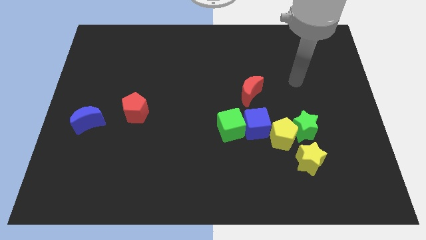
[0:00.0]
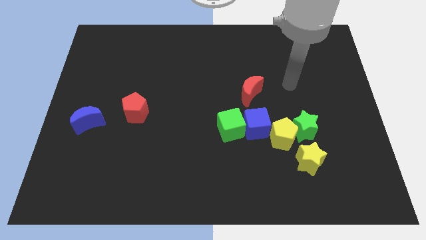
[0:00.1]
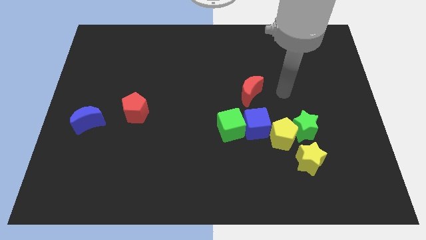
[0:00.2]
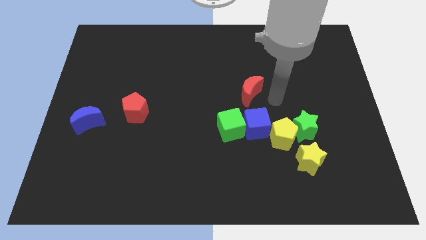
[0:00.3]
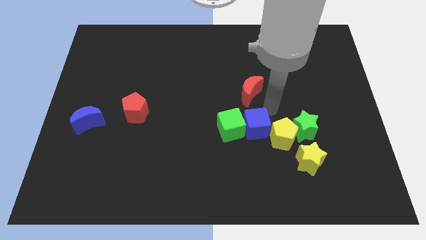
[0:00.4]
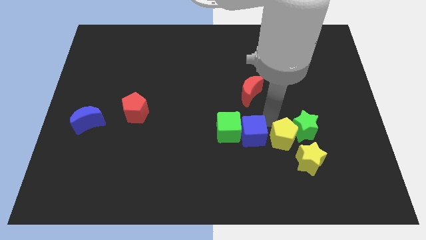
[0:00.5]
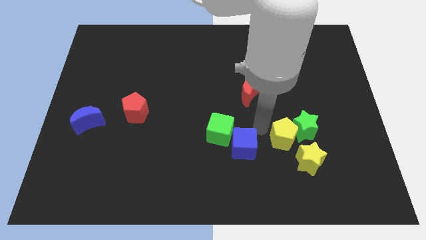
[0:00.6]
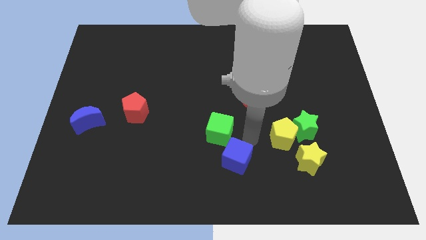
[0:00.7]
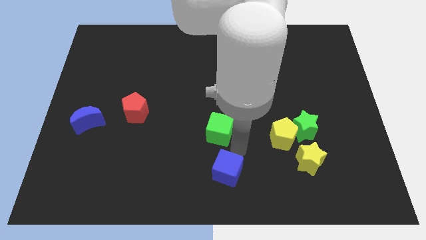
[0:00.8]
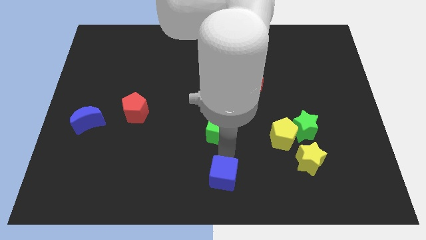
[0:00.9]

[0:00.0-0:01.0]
separate the green cube from the blue cube

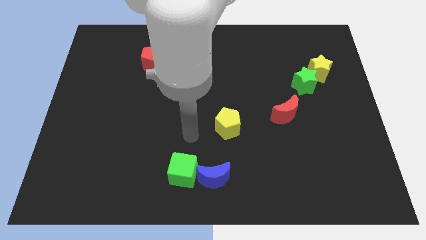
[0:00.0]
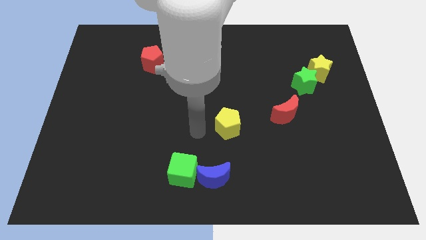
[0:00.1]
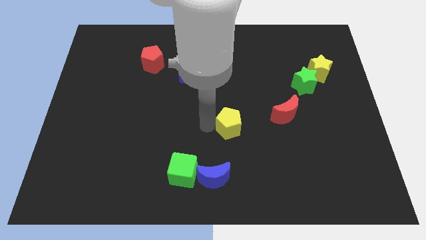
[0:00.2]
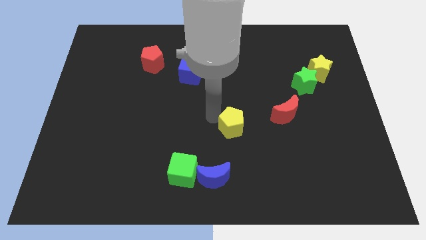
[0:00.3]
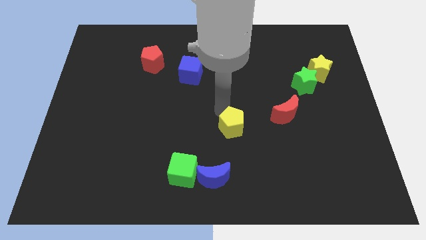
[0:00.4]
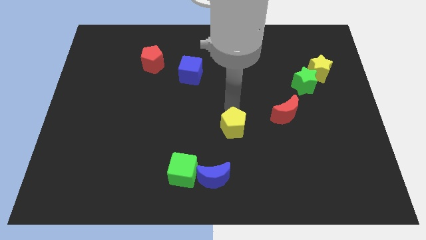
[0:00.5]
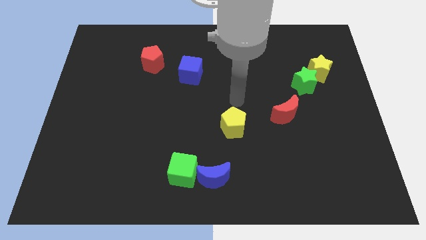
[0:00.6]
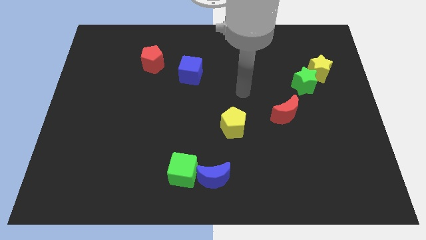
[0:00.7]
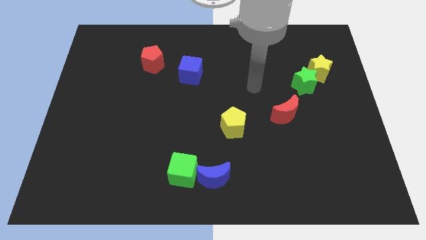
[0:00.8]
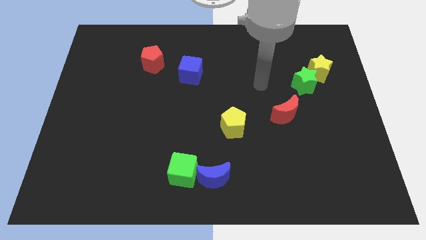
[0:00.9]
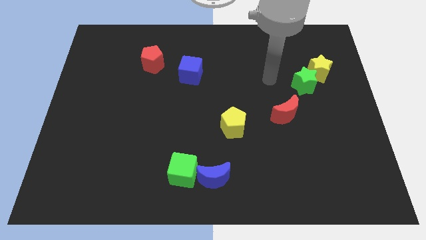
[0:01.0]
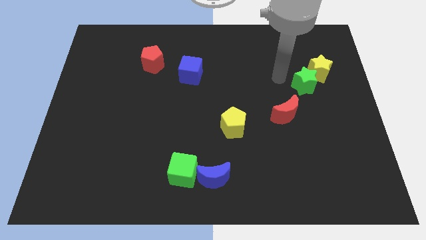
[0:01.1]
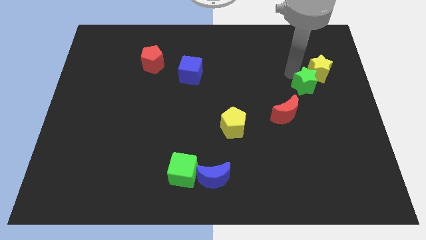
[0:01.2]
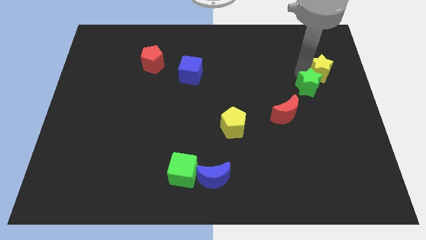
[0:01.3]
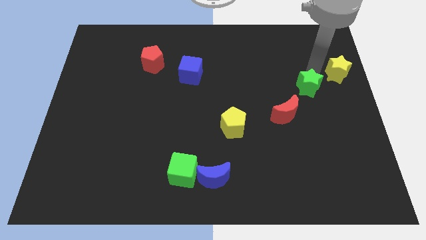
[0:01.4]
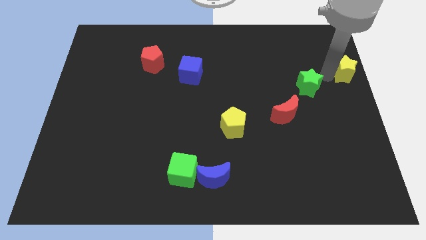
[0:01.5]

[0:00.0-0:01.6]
move the green star away from the yellow star

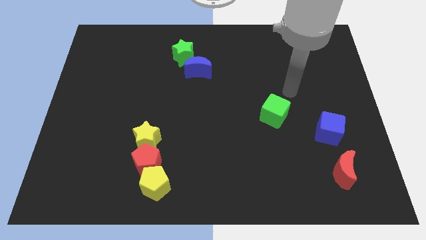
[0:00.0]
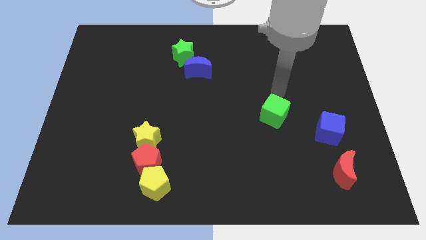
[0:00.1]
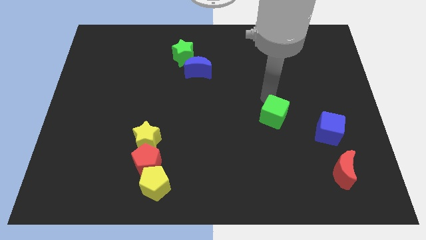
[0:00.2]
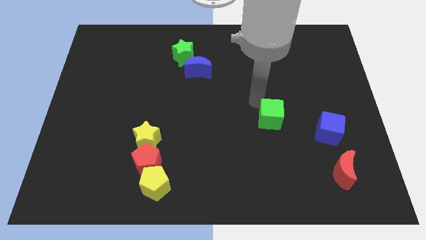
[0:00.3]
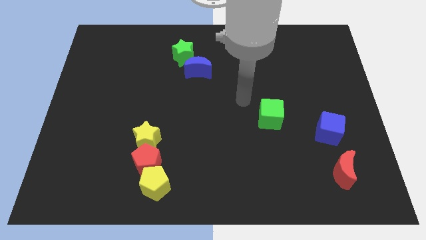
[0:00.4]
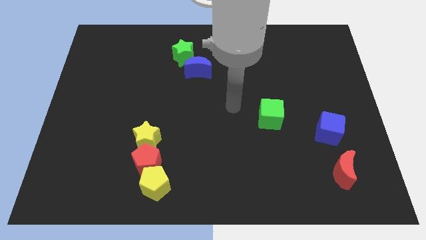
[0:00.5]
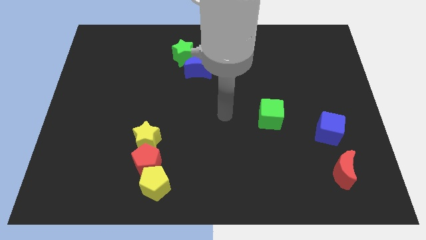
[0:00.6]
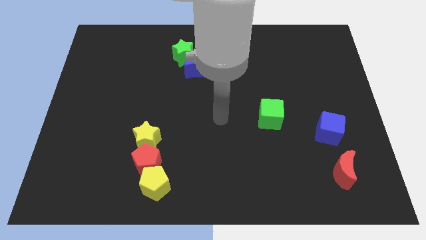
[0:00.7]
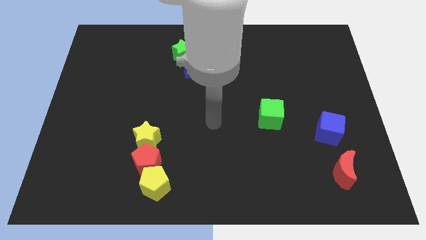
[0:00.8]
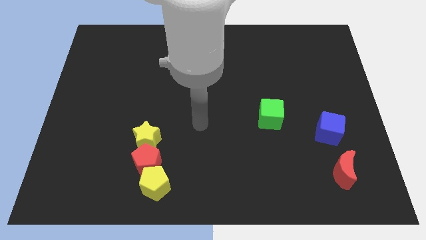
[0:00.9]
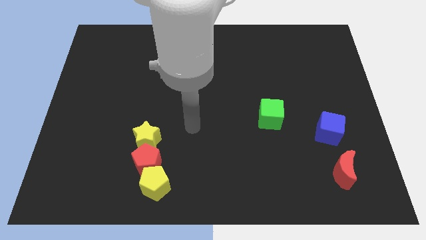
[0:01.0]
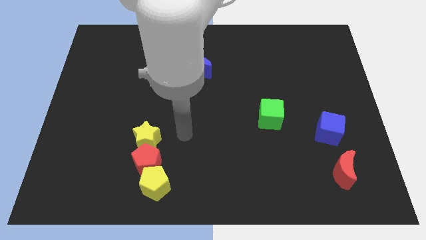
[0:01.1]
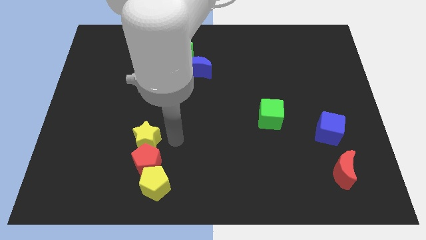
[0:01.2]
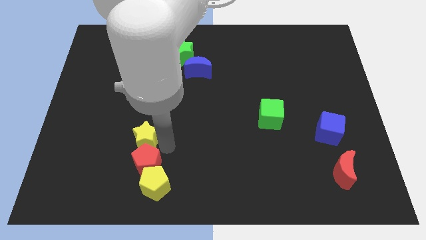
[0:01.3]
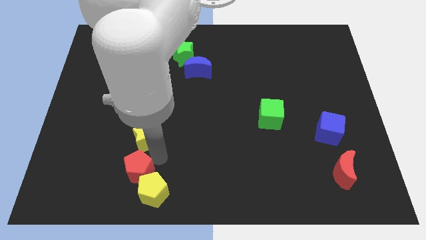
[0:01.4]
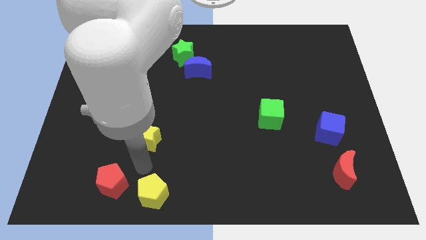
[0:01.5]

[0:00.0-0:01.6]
separate the yellow star from the red pentagon

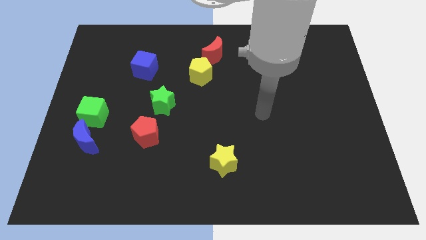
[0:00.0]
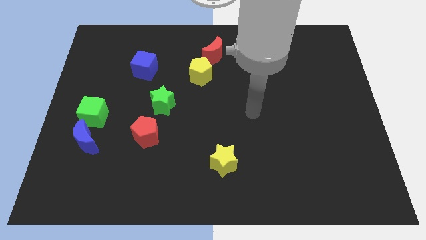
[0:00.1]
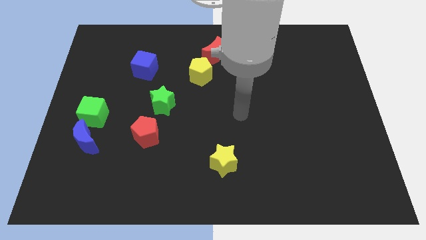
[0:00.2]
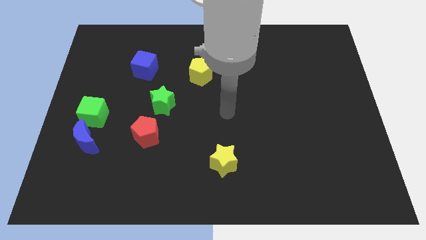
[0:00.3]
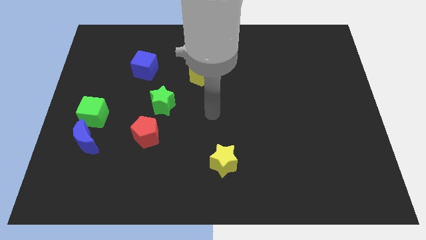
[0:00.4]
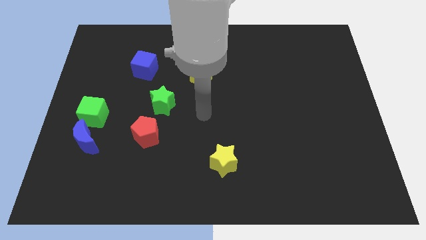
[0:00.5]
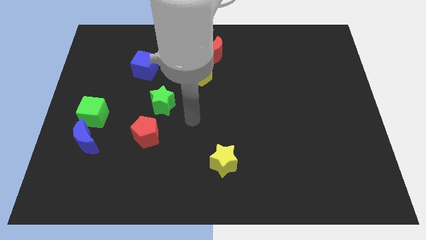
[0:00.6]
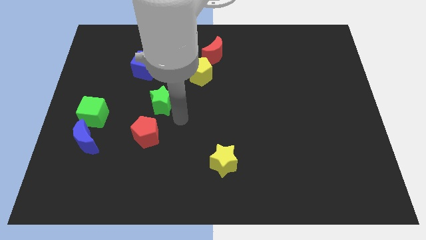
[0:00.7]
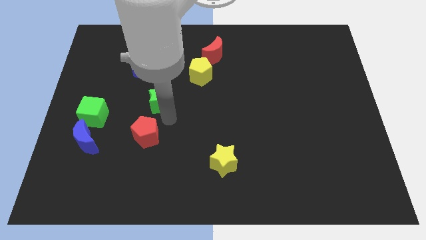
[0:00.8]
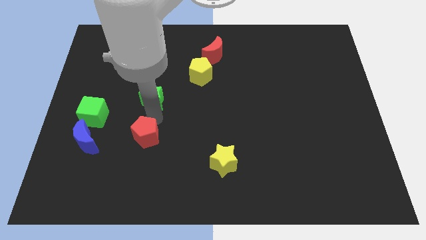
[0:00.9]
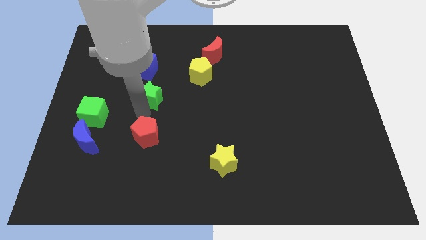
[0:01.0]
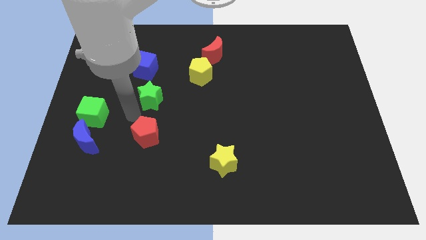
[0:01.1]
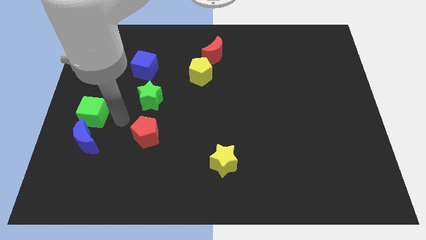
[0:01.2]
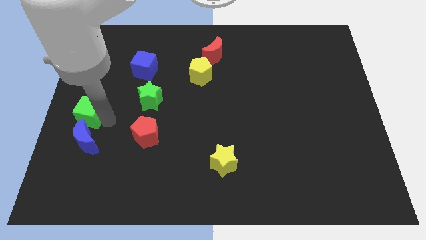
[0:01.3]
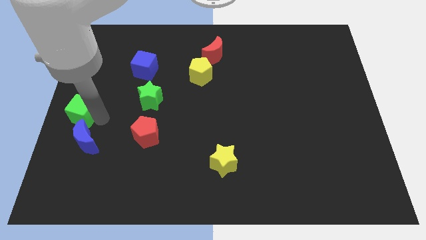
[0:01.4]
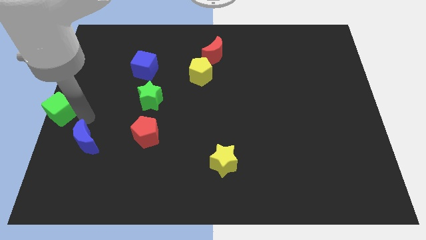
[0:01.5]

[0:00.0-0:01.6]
pull the blue moon apart from the green cube

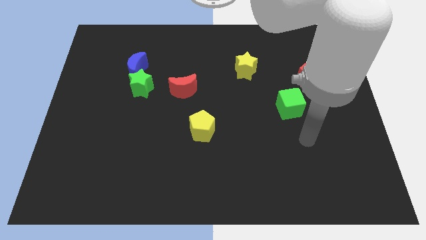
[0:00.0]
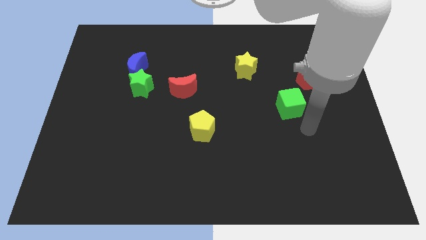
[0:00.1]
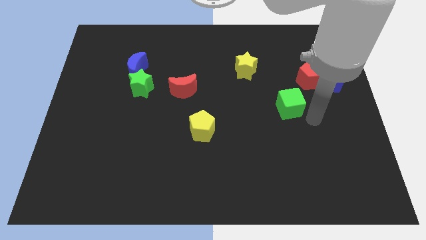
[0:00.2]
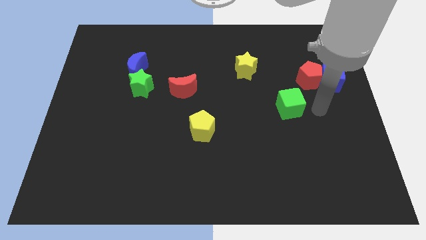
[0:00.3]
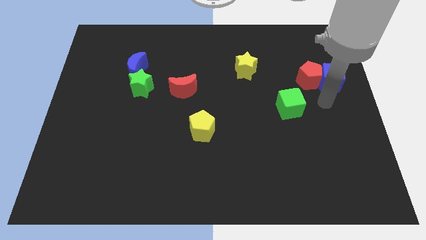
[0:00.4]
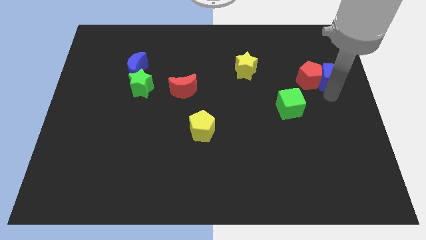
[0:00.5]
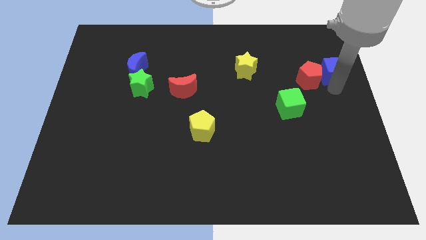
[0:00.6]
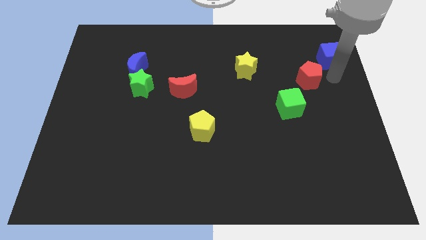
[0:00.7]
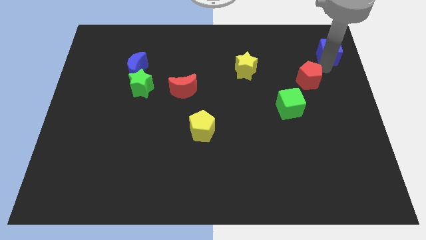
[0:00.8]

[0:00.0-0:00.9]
move the red pentagon away from the blue cube

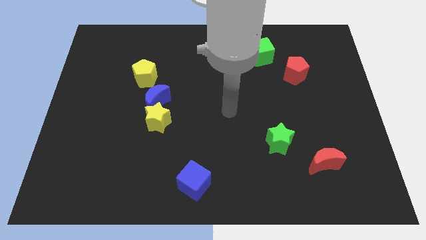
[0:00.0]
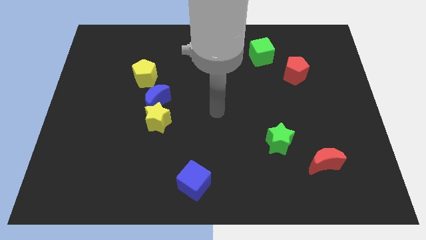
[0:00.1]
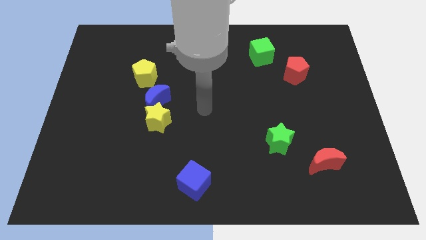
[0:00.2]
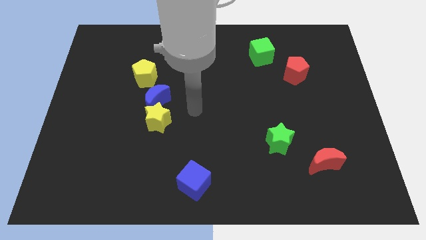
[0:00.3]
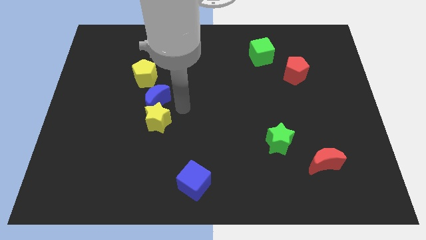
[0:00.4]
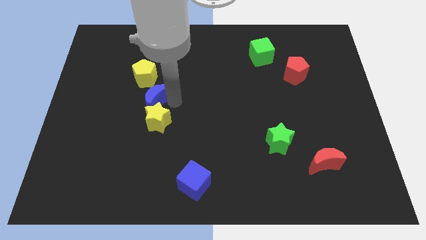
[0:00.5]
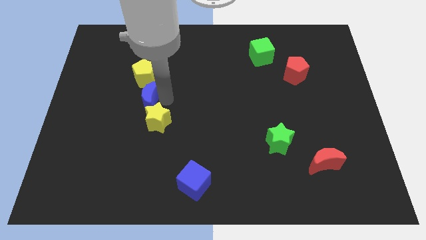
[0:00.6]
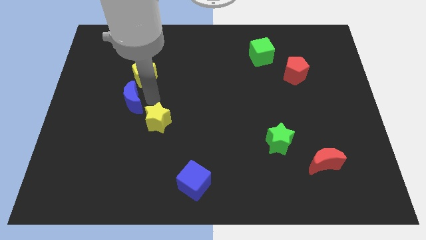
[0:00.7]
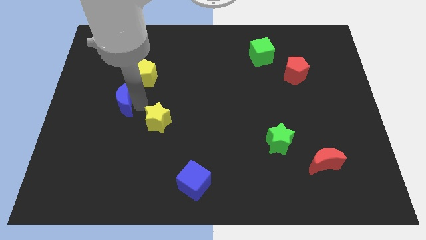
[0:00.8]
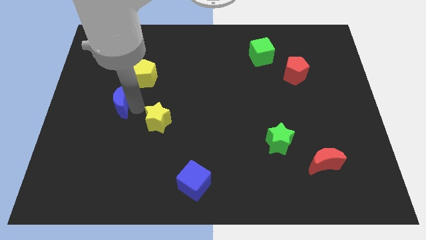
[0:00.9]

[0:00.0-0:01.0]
move the yellow star away from the blue moon

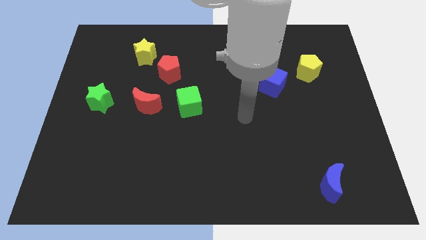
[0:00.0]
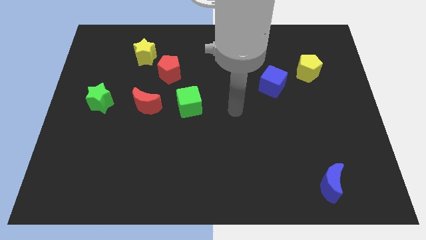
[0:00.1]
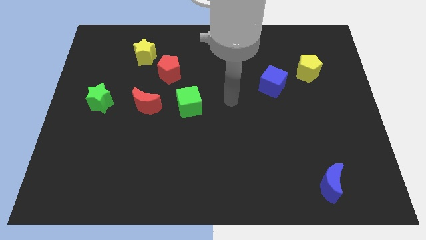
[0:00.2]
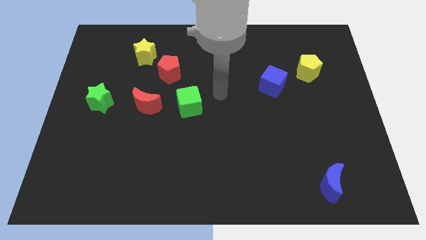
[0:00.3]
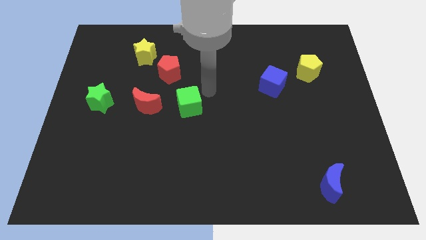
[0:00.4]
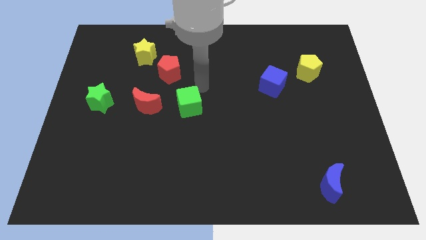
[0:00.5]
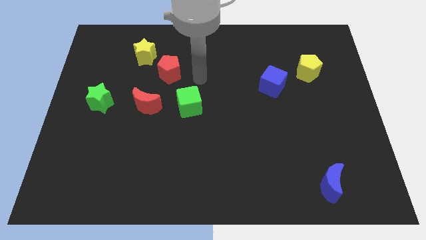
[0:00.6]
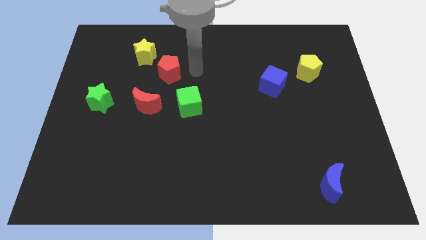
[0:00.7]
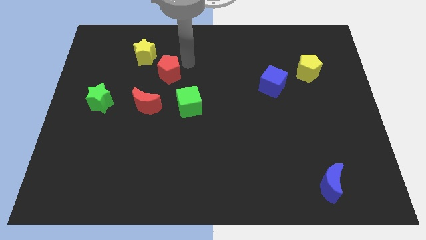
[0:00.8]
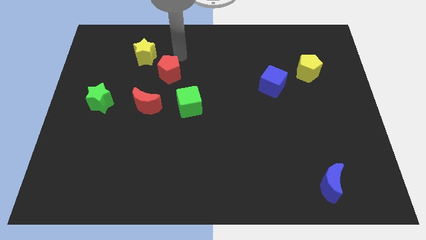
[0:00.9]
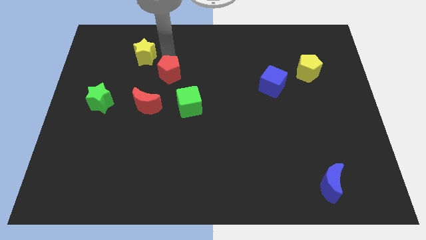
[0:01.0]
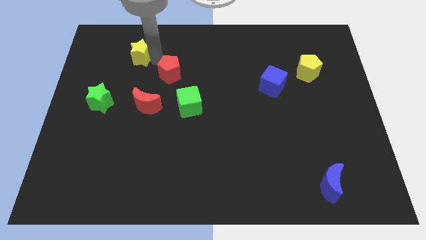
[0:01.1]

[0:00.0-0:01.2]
separate the red pentagon from the yellow star

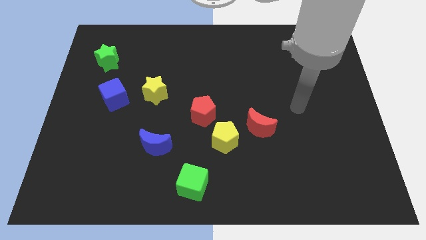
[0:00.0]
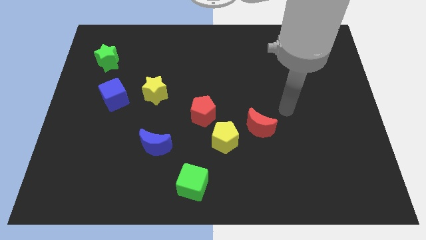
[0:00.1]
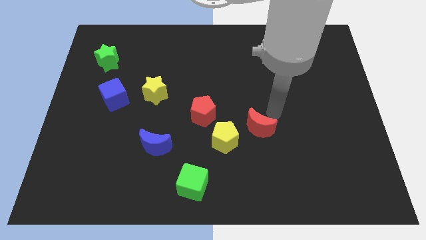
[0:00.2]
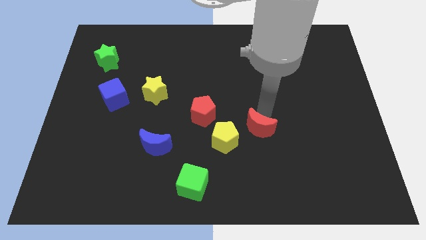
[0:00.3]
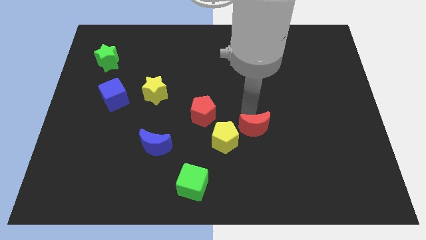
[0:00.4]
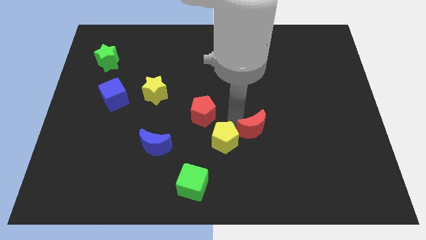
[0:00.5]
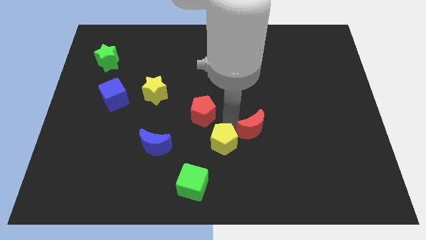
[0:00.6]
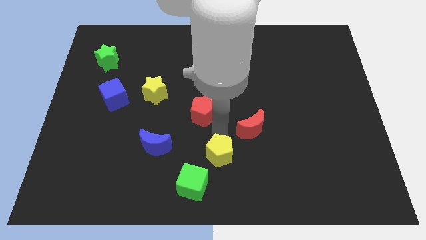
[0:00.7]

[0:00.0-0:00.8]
pull the red pentagon apart from the yellow pentagon
